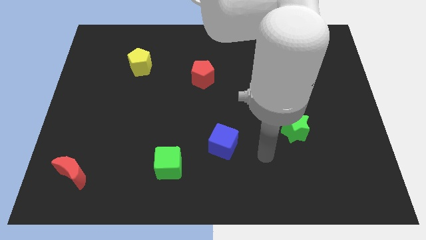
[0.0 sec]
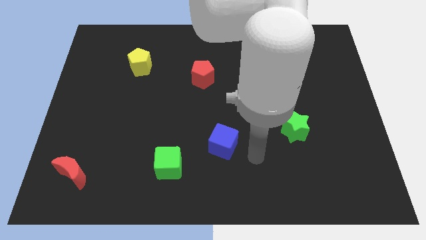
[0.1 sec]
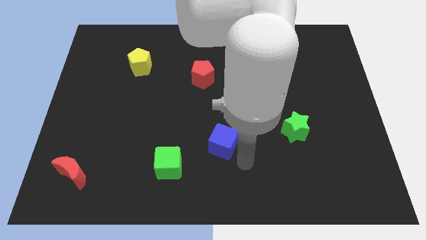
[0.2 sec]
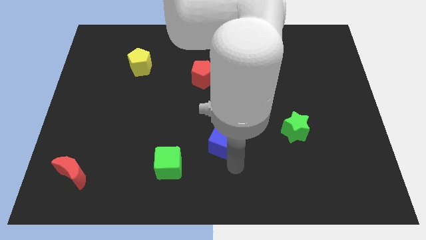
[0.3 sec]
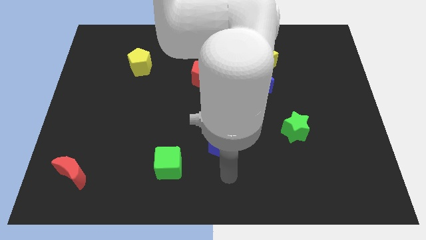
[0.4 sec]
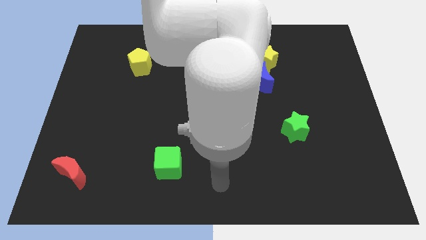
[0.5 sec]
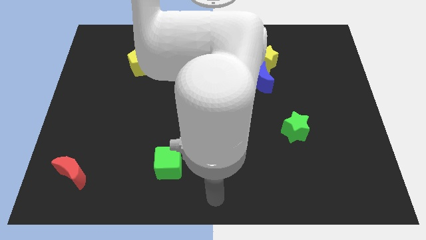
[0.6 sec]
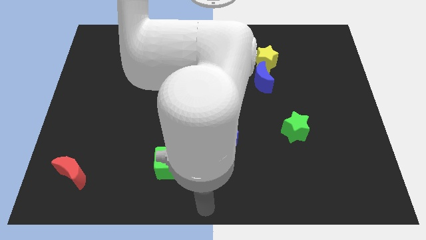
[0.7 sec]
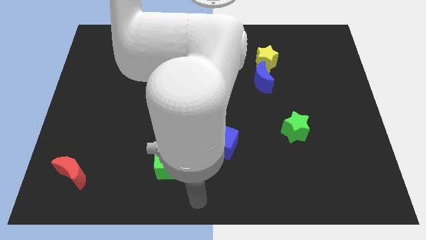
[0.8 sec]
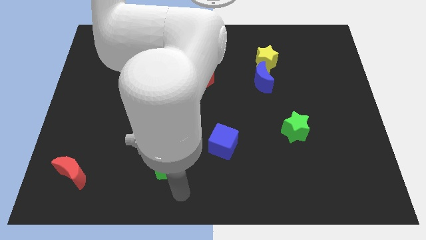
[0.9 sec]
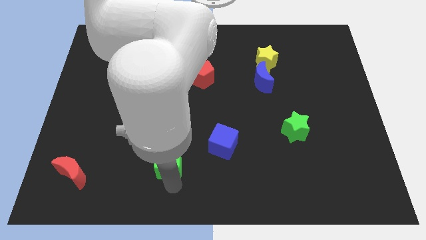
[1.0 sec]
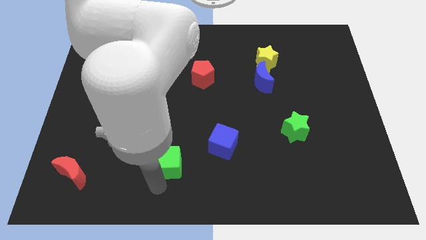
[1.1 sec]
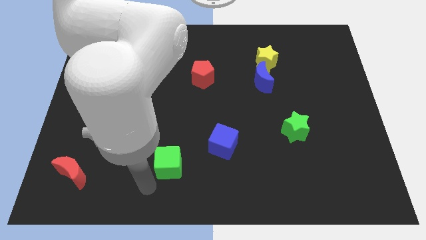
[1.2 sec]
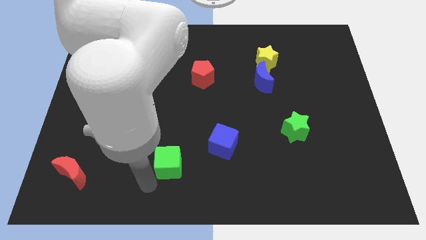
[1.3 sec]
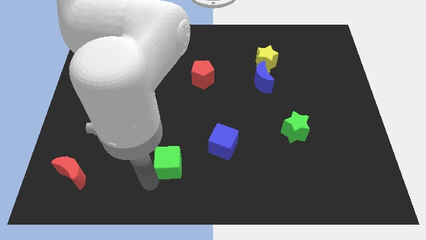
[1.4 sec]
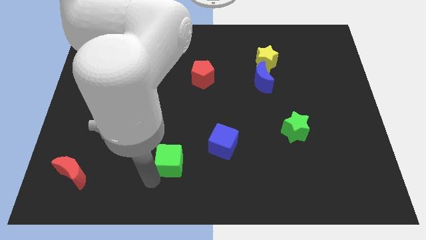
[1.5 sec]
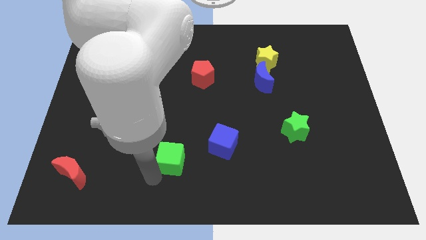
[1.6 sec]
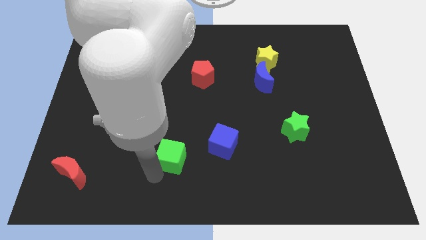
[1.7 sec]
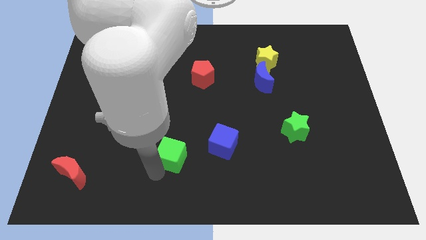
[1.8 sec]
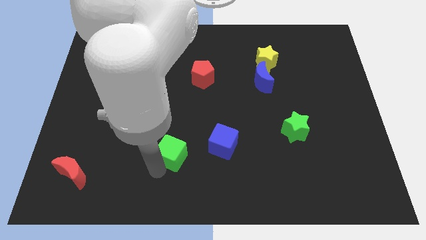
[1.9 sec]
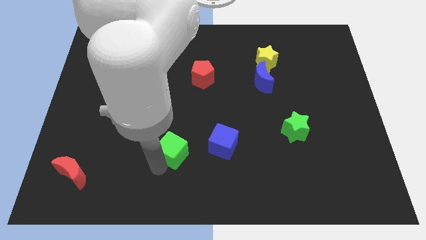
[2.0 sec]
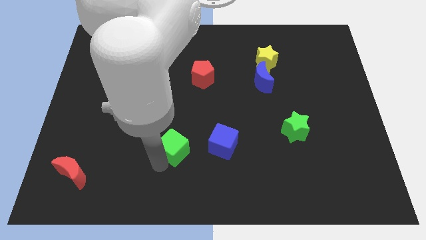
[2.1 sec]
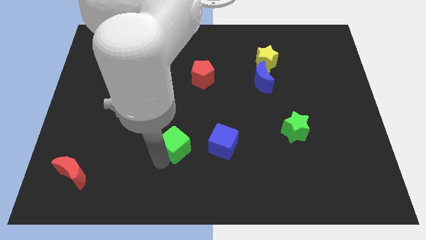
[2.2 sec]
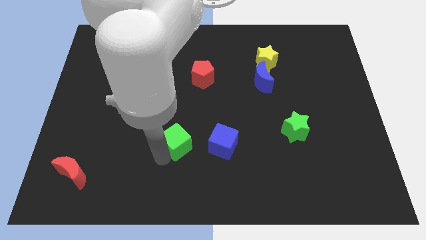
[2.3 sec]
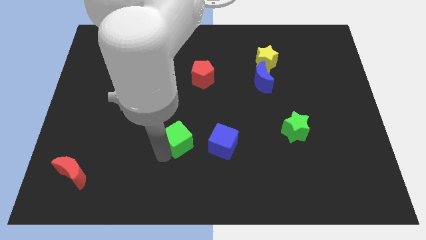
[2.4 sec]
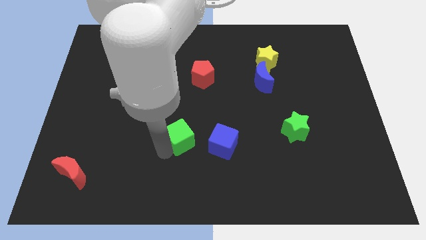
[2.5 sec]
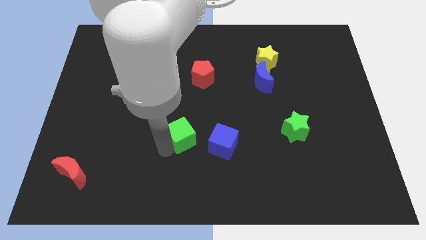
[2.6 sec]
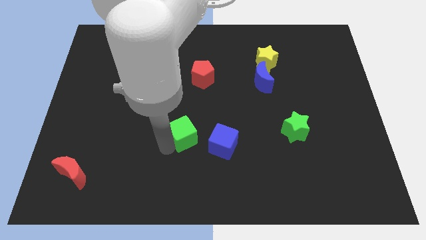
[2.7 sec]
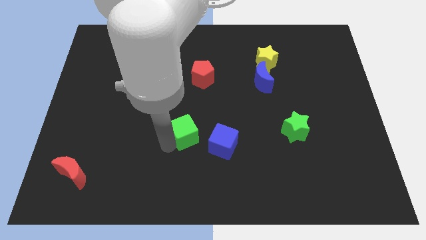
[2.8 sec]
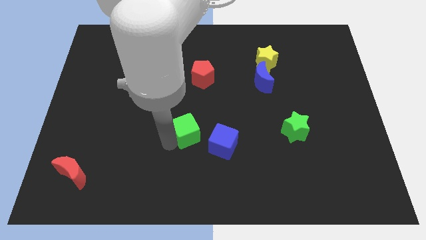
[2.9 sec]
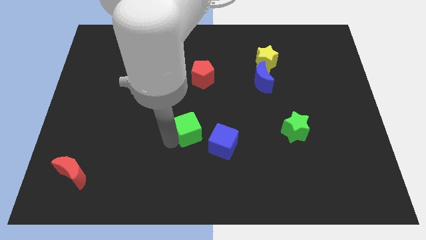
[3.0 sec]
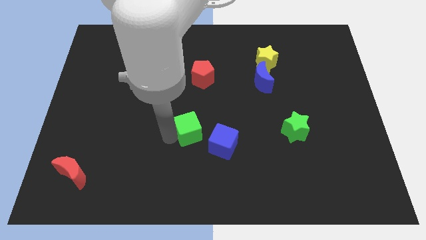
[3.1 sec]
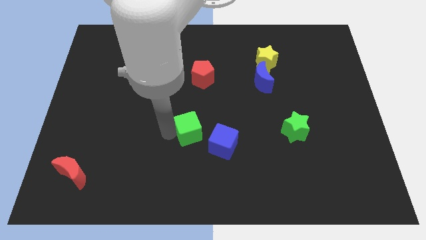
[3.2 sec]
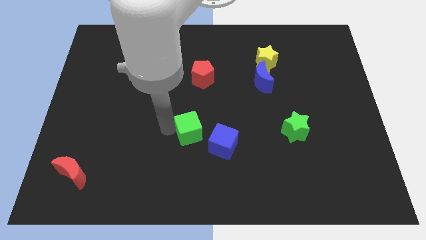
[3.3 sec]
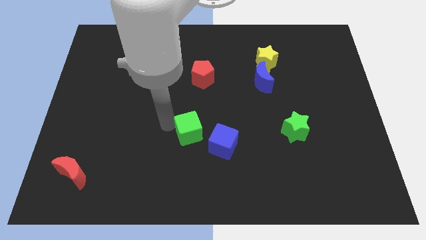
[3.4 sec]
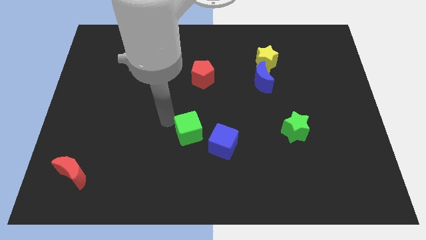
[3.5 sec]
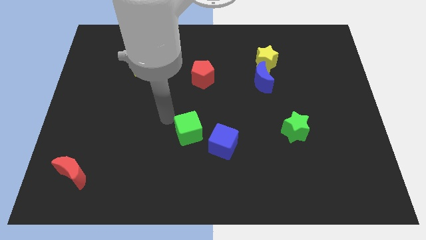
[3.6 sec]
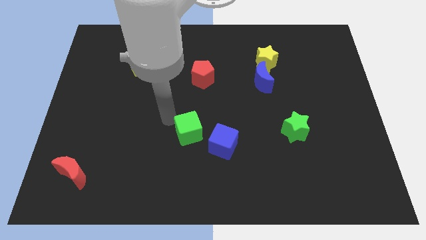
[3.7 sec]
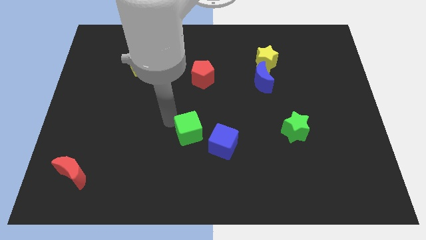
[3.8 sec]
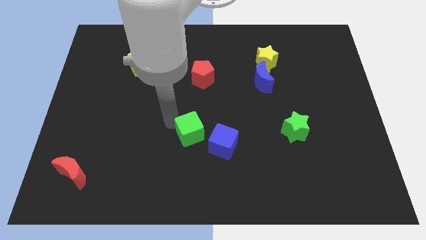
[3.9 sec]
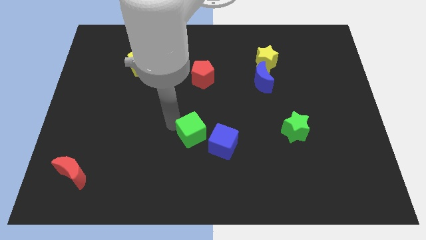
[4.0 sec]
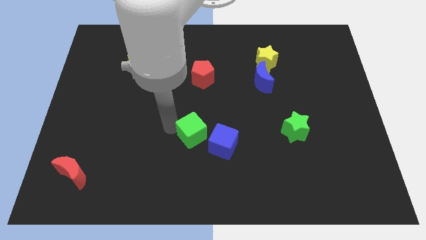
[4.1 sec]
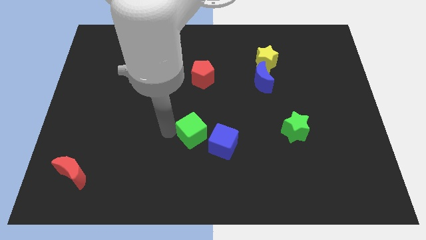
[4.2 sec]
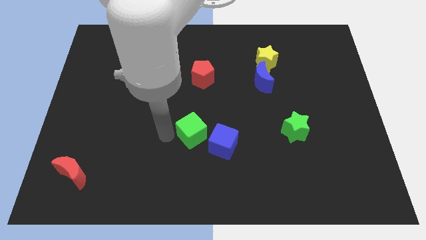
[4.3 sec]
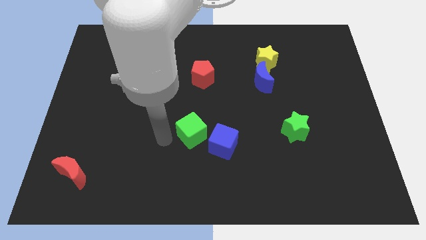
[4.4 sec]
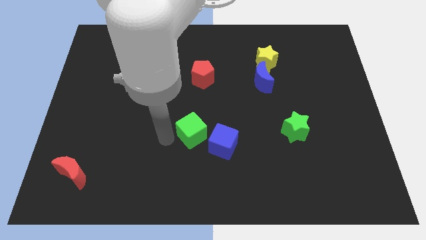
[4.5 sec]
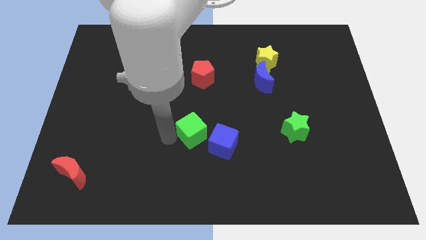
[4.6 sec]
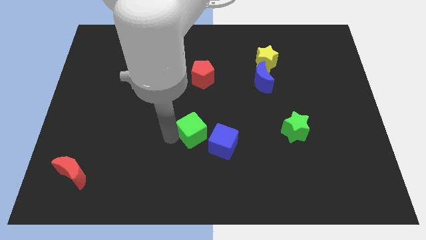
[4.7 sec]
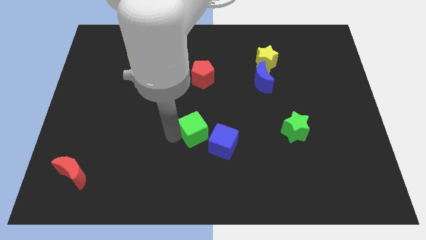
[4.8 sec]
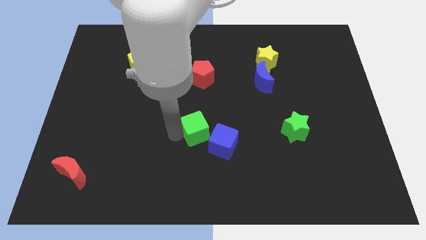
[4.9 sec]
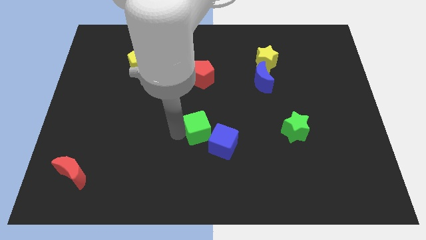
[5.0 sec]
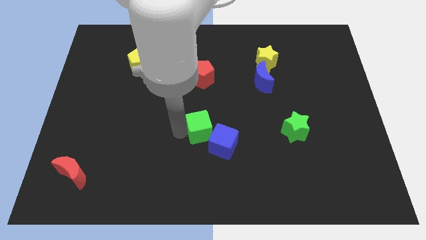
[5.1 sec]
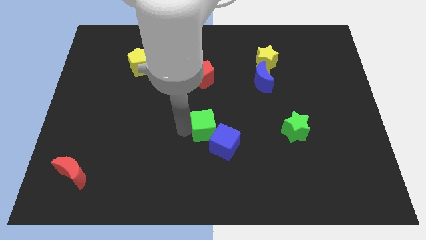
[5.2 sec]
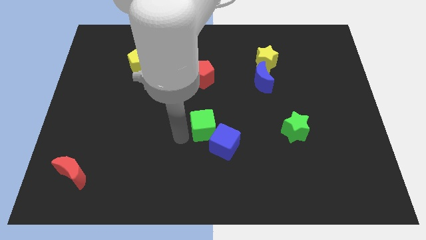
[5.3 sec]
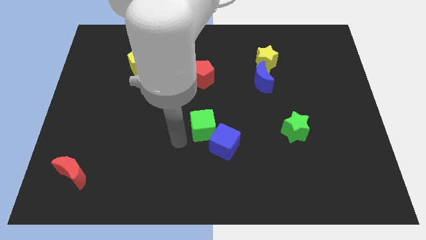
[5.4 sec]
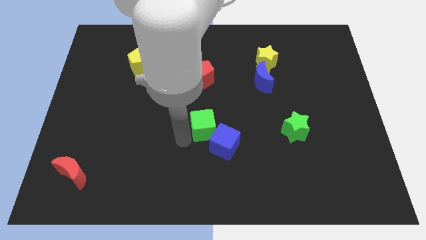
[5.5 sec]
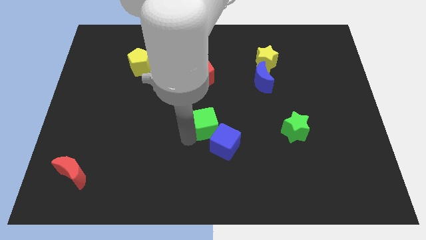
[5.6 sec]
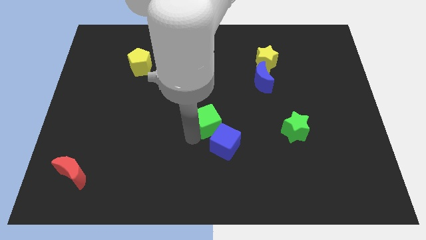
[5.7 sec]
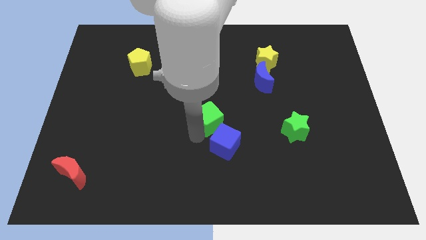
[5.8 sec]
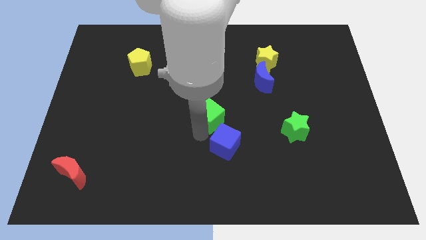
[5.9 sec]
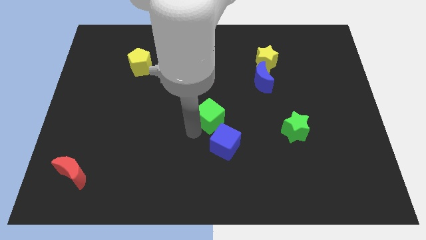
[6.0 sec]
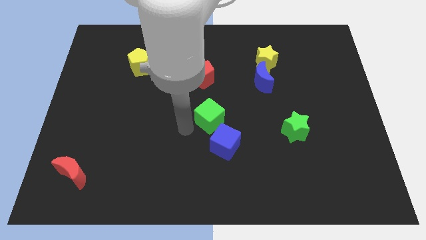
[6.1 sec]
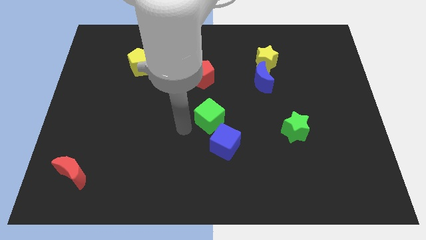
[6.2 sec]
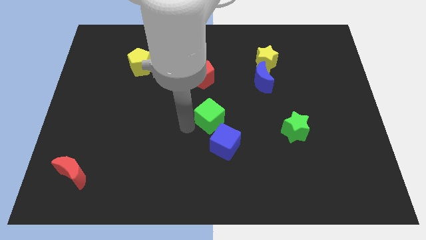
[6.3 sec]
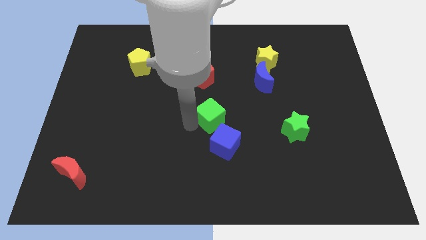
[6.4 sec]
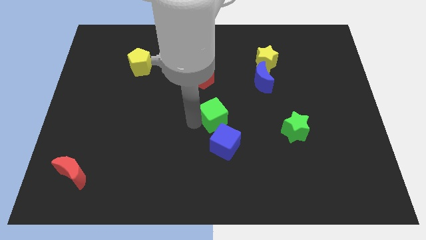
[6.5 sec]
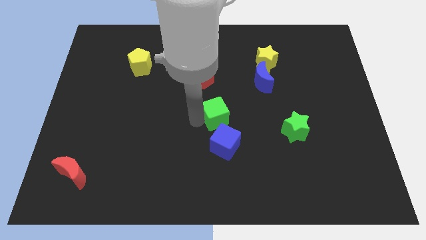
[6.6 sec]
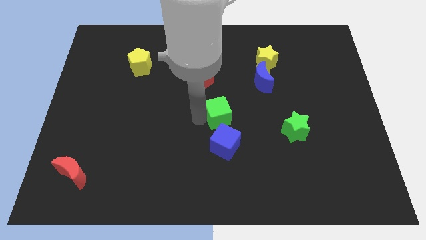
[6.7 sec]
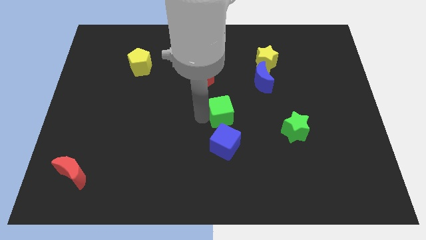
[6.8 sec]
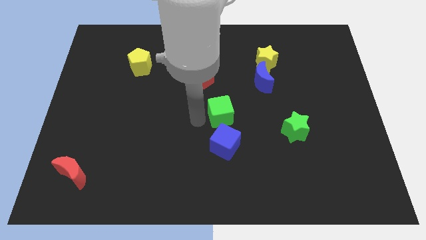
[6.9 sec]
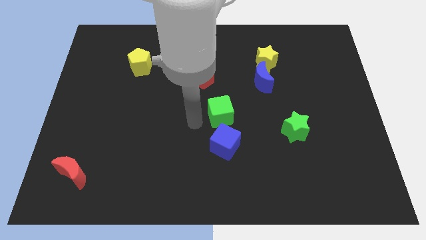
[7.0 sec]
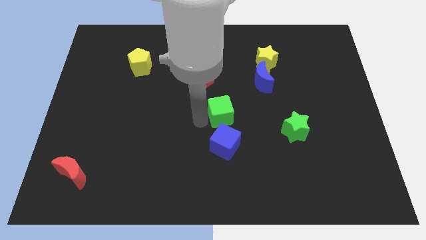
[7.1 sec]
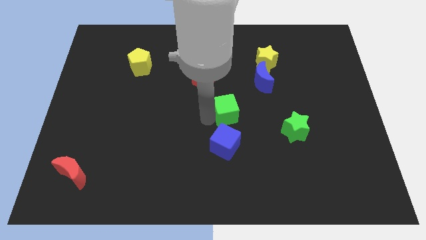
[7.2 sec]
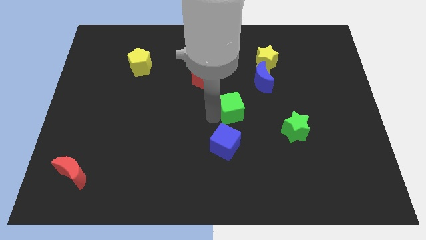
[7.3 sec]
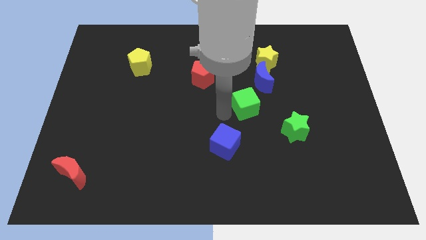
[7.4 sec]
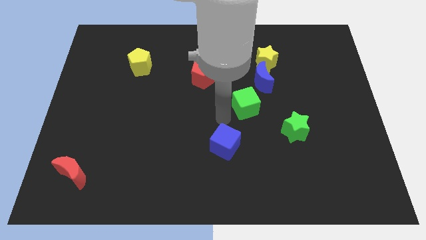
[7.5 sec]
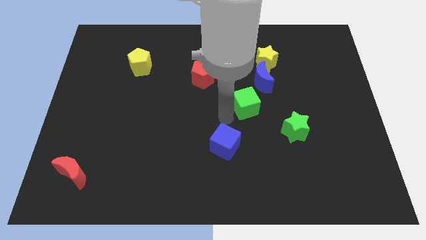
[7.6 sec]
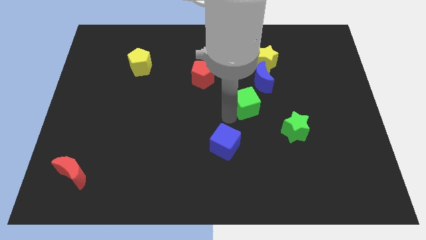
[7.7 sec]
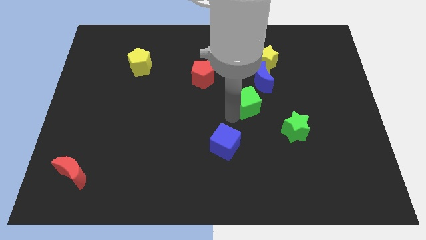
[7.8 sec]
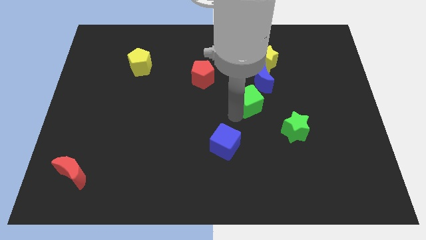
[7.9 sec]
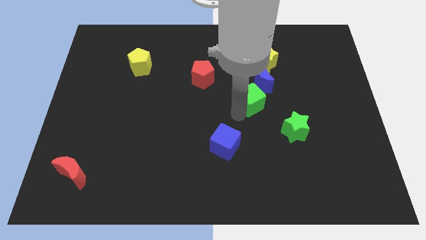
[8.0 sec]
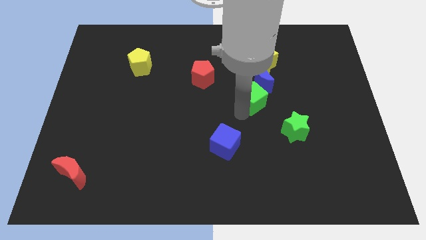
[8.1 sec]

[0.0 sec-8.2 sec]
slide the green cube to the bottom of the yellow star
